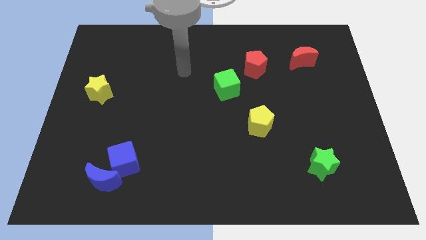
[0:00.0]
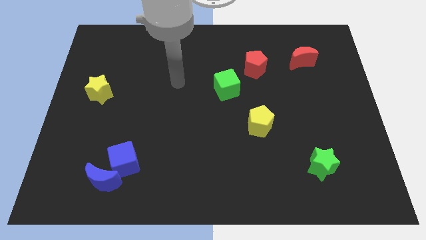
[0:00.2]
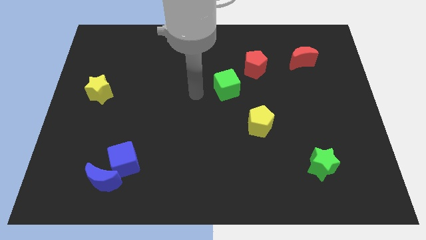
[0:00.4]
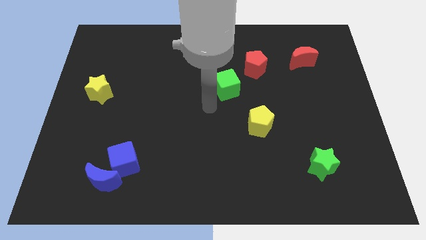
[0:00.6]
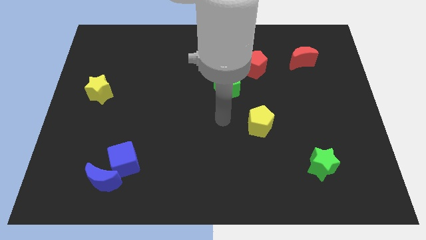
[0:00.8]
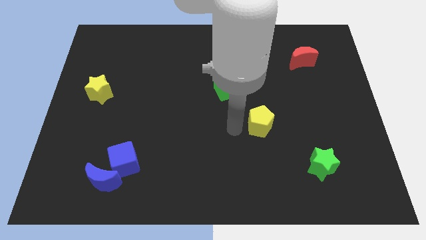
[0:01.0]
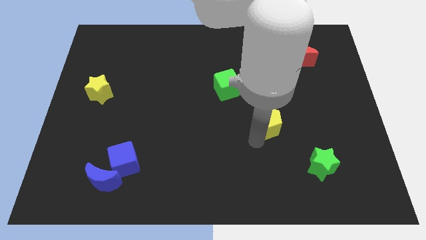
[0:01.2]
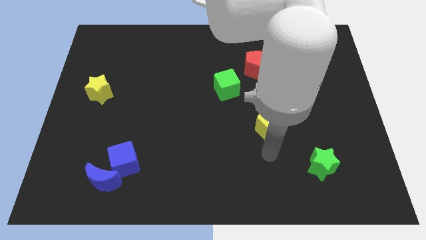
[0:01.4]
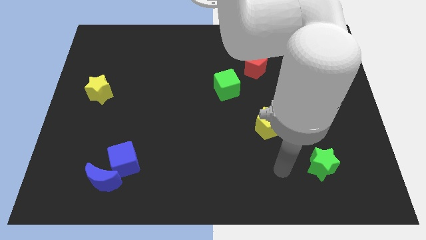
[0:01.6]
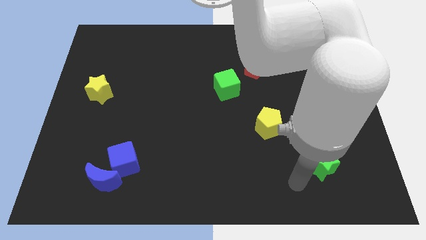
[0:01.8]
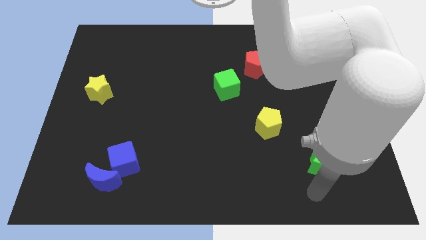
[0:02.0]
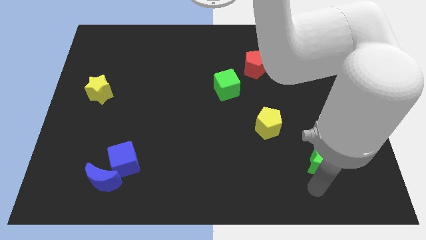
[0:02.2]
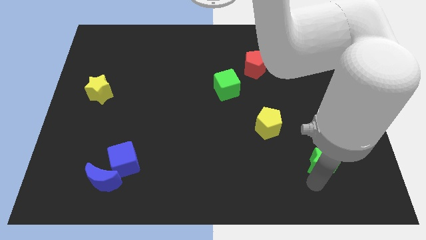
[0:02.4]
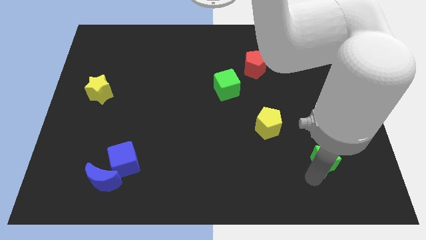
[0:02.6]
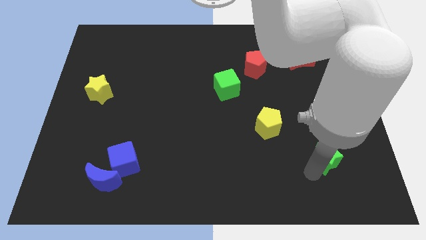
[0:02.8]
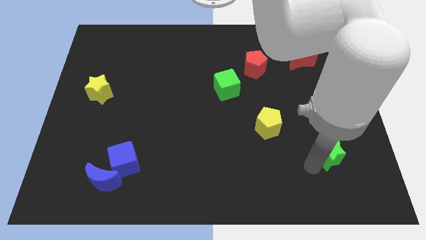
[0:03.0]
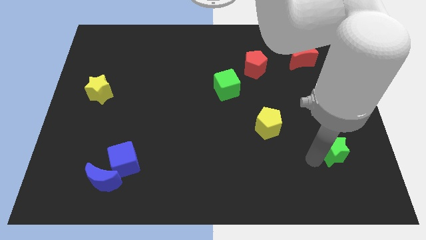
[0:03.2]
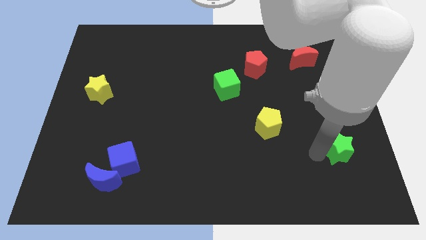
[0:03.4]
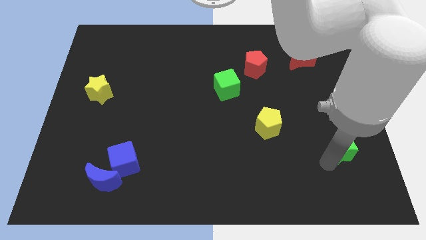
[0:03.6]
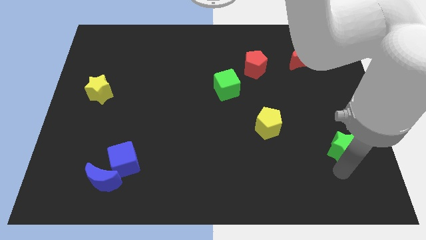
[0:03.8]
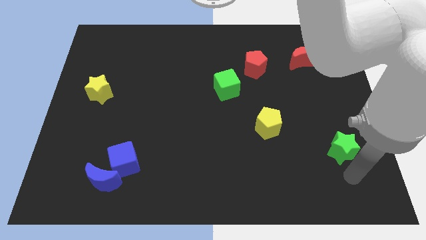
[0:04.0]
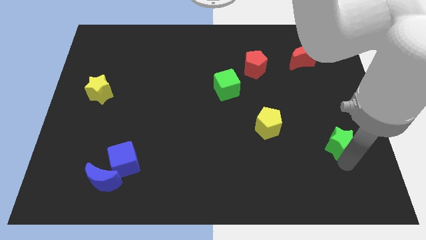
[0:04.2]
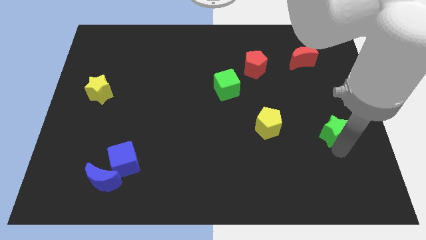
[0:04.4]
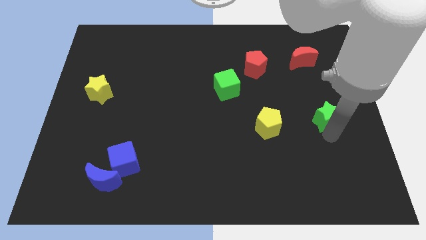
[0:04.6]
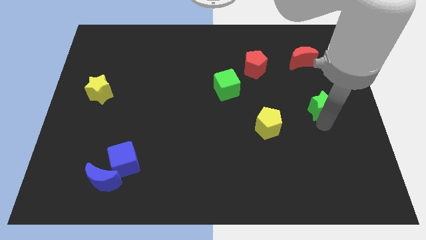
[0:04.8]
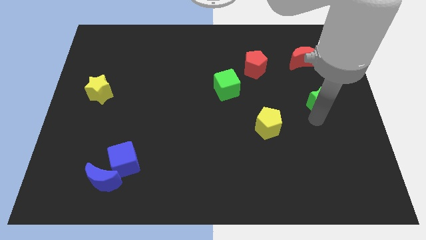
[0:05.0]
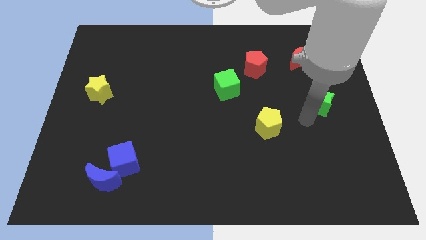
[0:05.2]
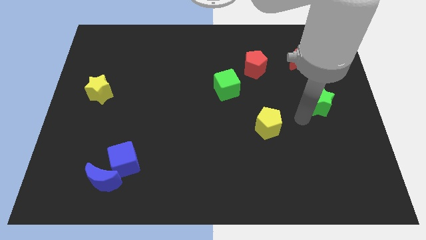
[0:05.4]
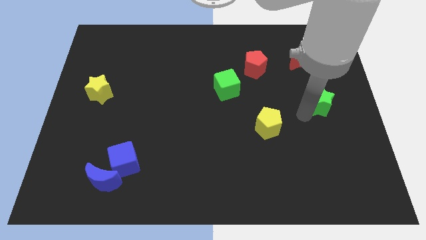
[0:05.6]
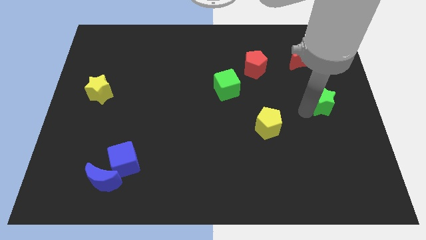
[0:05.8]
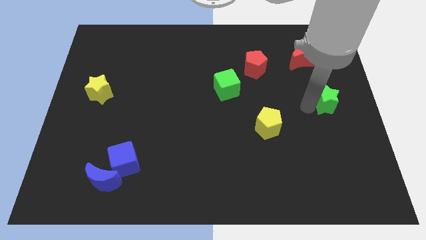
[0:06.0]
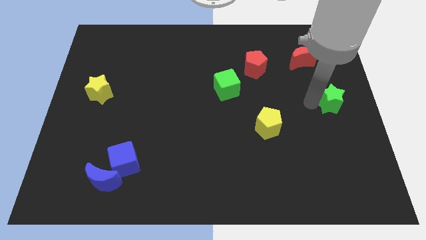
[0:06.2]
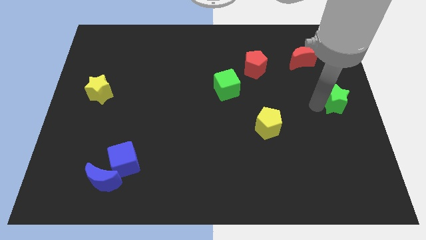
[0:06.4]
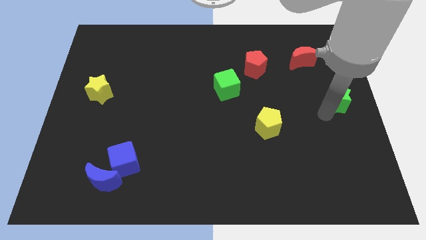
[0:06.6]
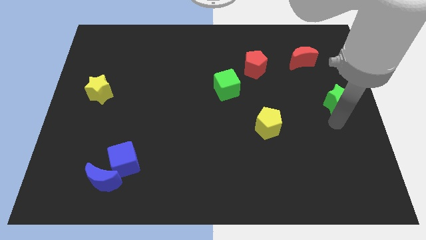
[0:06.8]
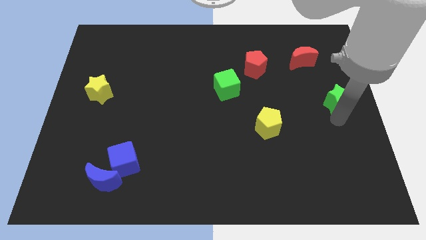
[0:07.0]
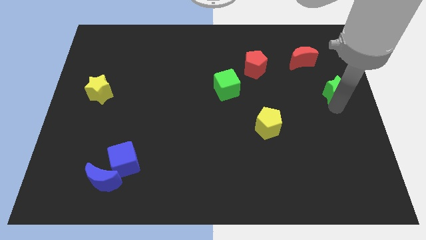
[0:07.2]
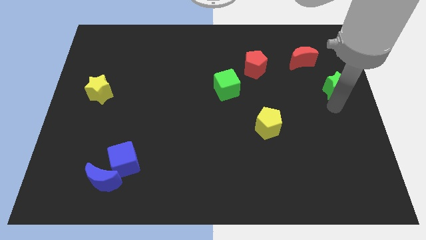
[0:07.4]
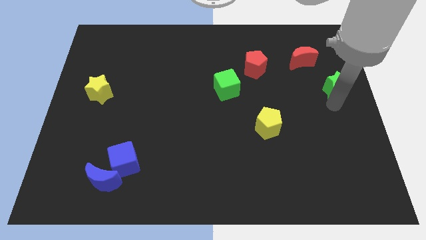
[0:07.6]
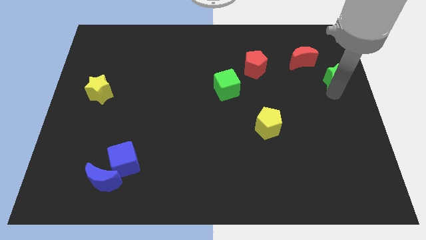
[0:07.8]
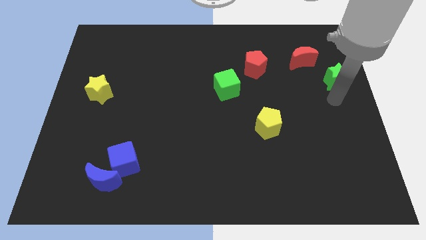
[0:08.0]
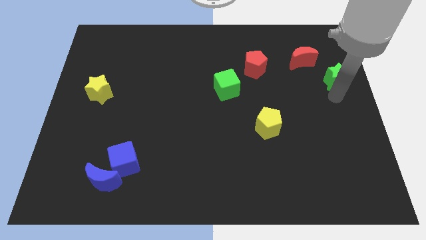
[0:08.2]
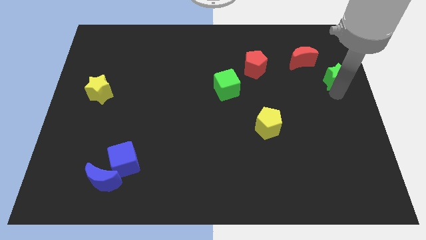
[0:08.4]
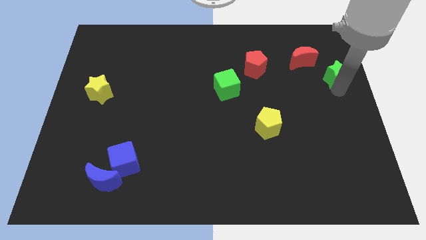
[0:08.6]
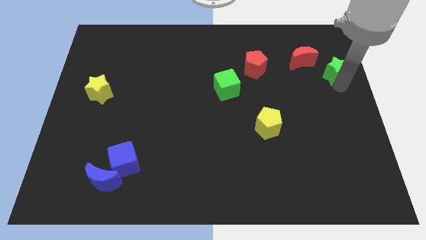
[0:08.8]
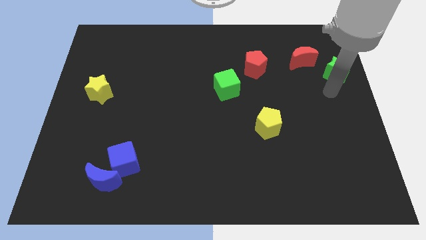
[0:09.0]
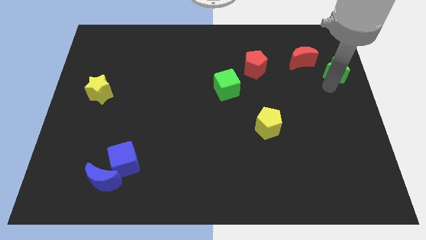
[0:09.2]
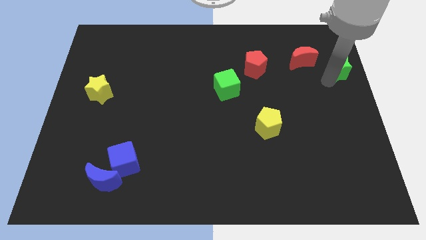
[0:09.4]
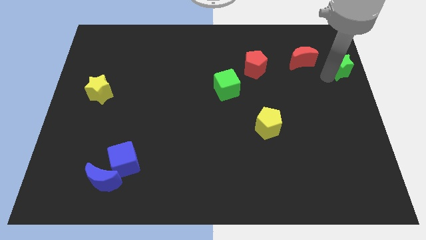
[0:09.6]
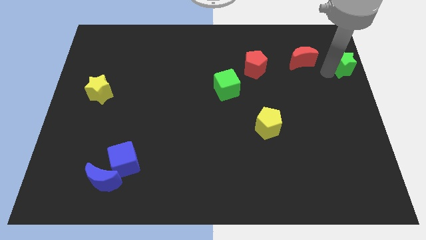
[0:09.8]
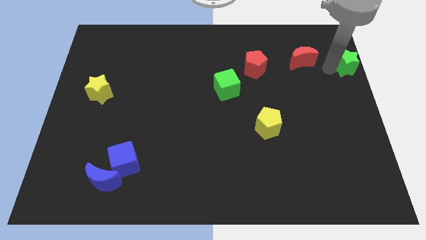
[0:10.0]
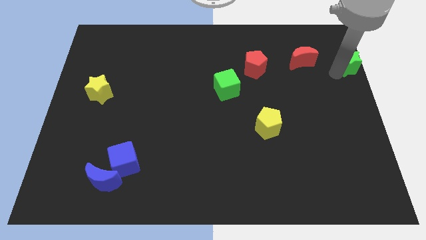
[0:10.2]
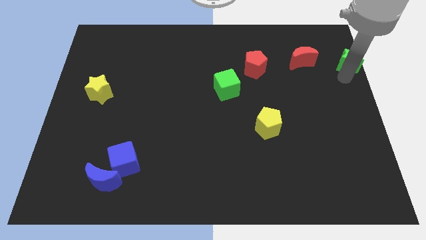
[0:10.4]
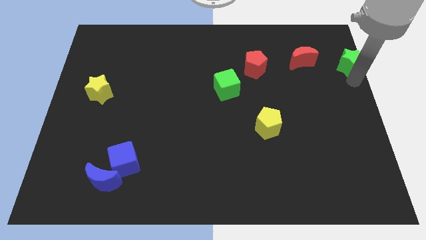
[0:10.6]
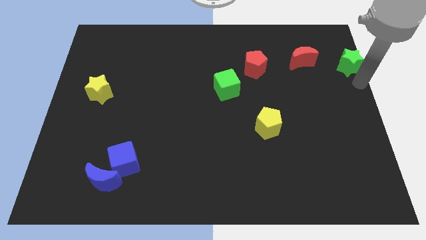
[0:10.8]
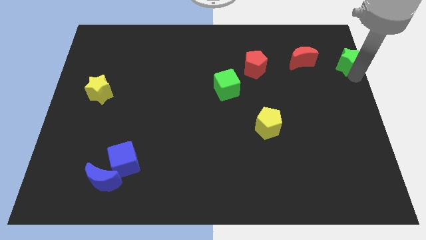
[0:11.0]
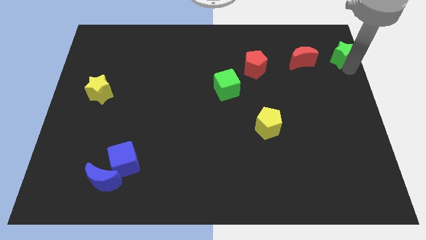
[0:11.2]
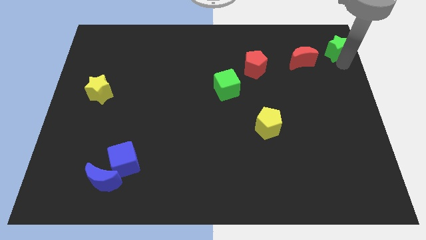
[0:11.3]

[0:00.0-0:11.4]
push the green star to the top right corner

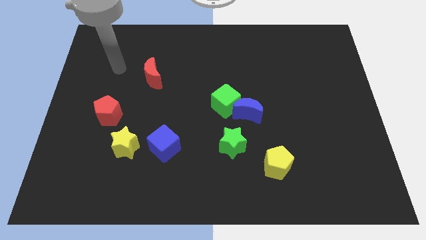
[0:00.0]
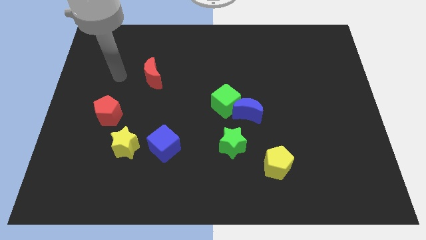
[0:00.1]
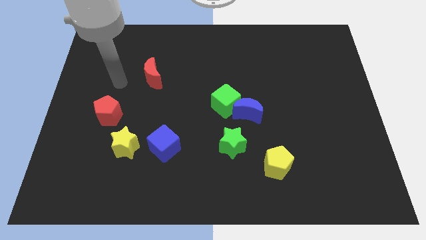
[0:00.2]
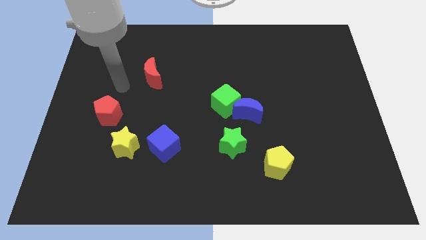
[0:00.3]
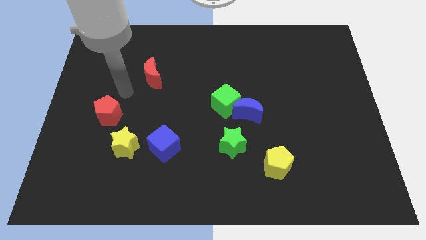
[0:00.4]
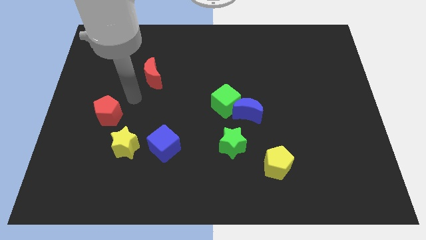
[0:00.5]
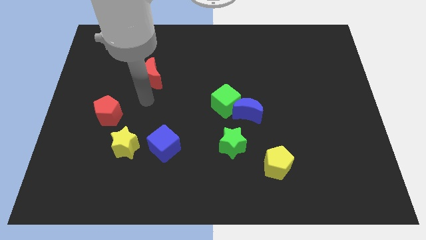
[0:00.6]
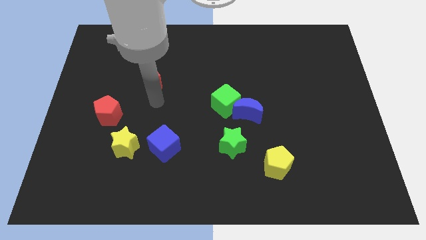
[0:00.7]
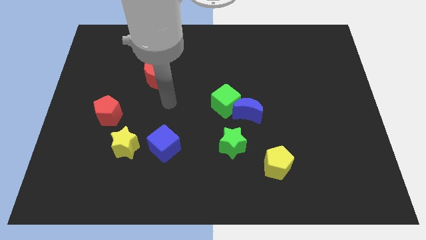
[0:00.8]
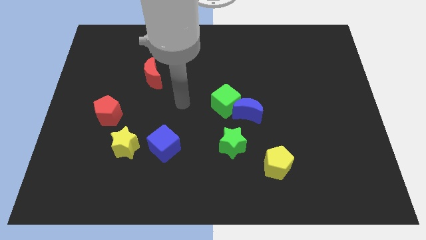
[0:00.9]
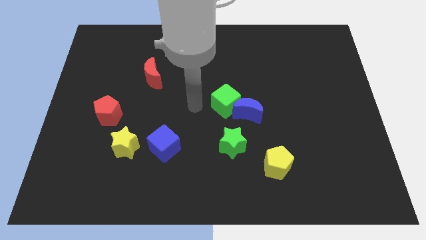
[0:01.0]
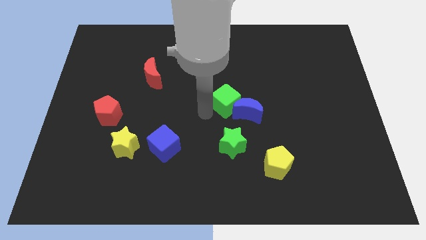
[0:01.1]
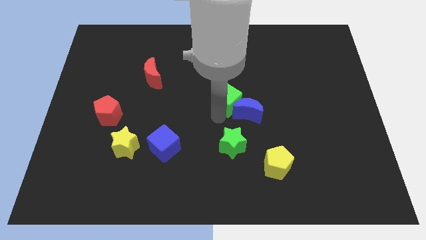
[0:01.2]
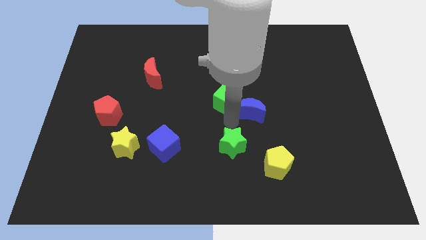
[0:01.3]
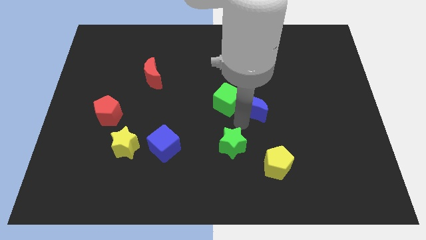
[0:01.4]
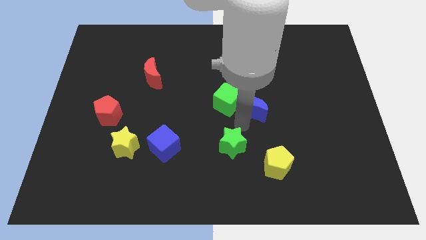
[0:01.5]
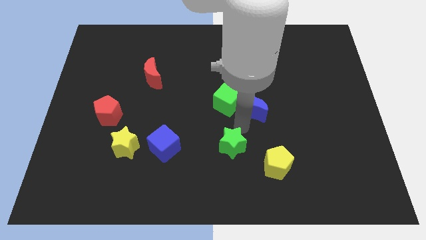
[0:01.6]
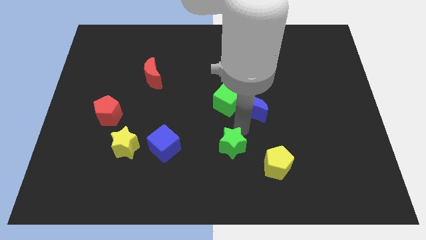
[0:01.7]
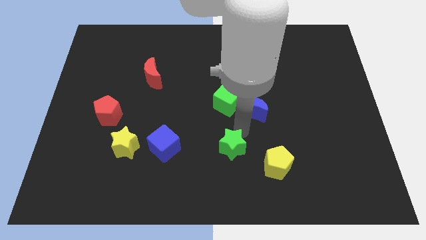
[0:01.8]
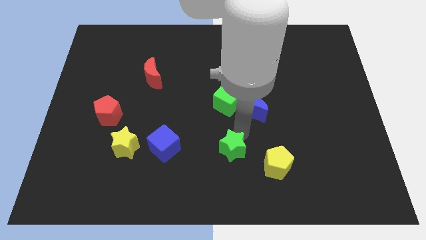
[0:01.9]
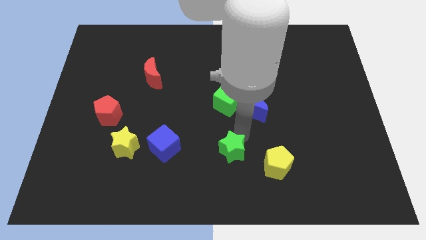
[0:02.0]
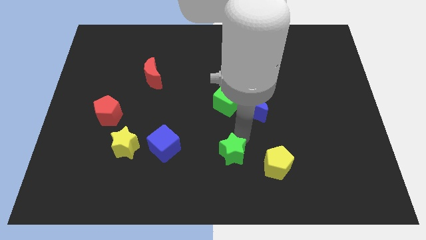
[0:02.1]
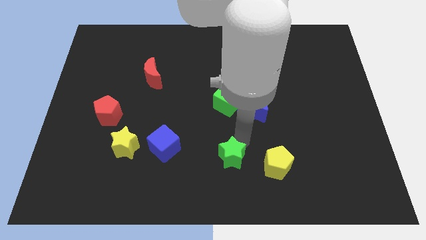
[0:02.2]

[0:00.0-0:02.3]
put the green star to the bottom side
